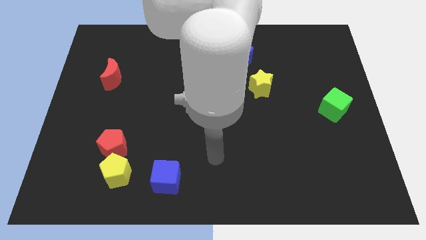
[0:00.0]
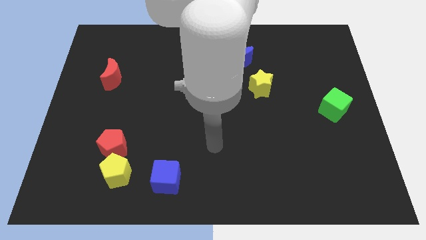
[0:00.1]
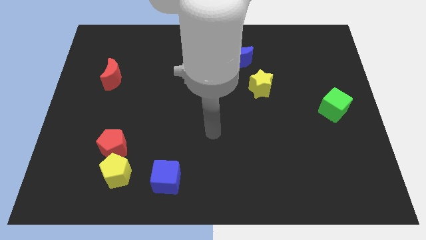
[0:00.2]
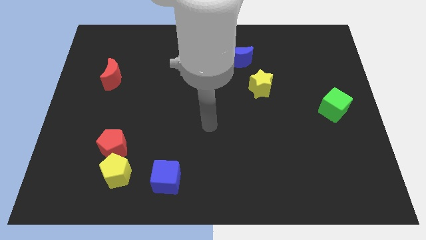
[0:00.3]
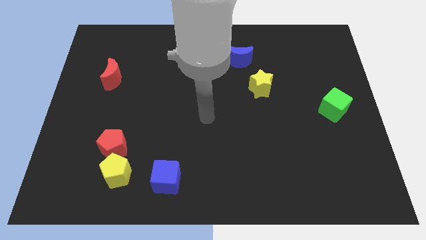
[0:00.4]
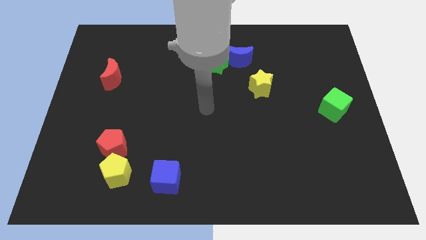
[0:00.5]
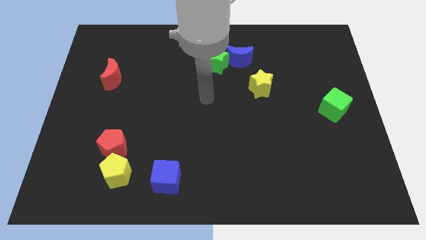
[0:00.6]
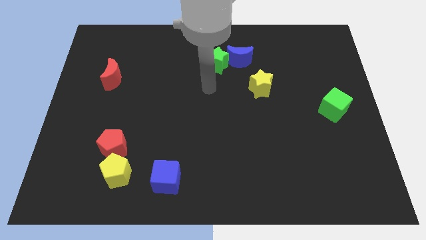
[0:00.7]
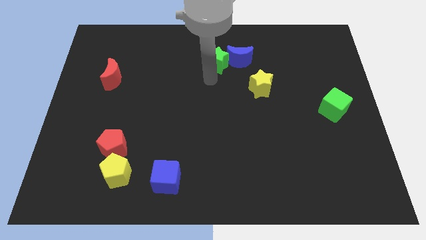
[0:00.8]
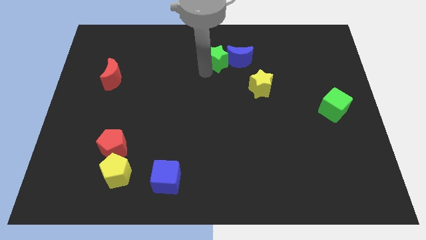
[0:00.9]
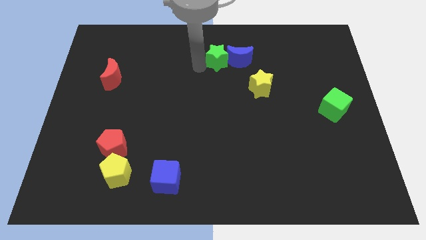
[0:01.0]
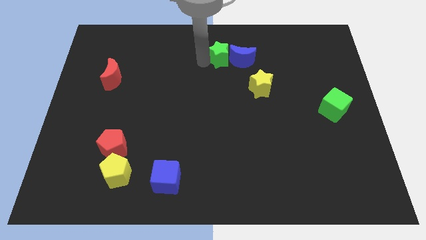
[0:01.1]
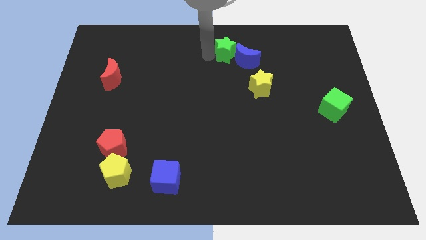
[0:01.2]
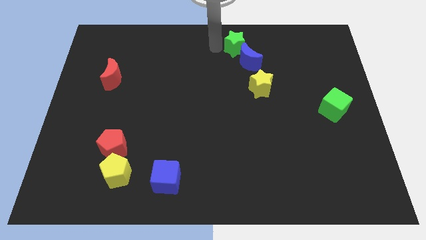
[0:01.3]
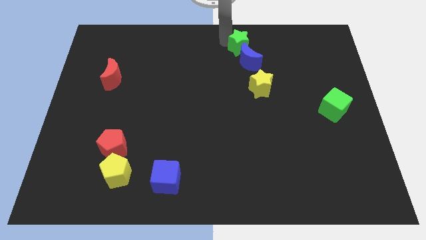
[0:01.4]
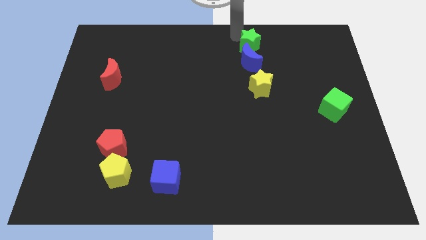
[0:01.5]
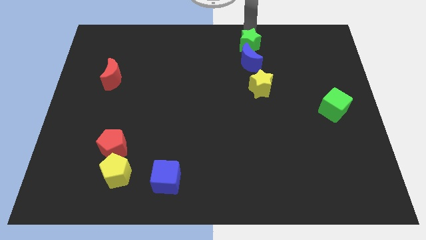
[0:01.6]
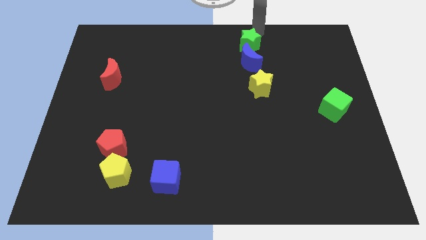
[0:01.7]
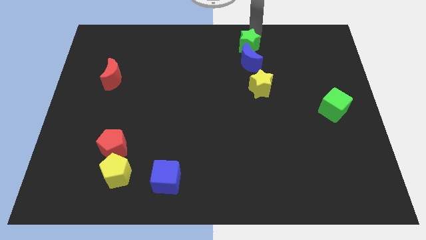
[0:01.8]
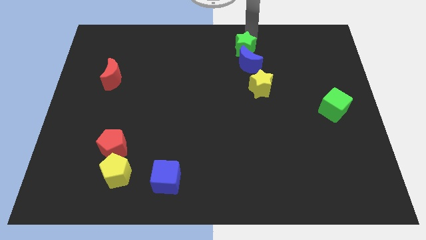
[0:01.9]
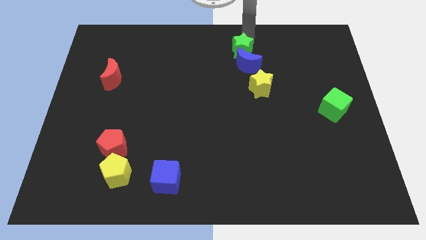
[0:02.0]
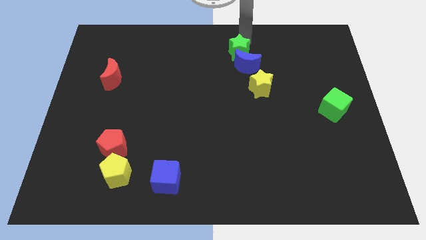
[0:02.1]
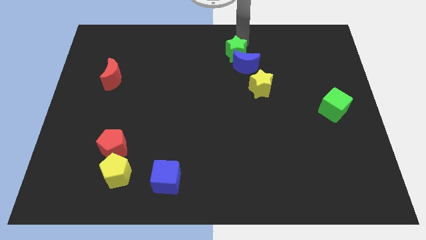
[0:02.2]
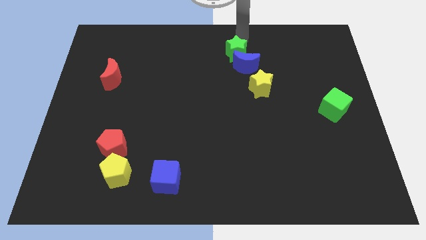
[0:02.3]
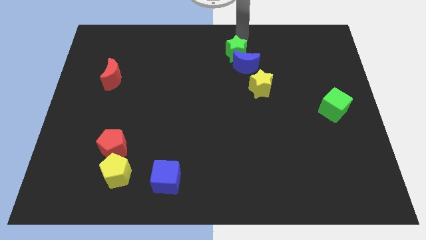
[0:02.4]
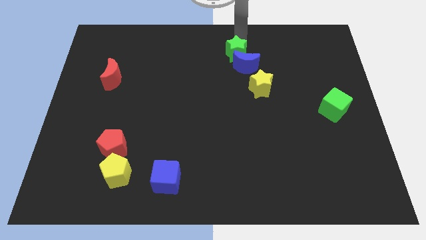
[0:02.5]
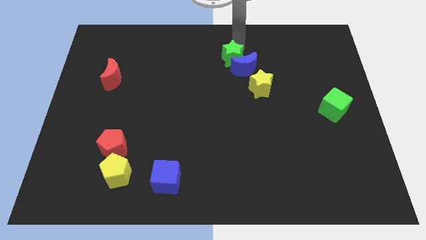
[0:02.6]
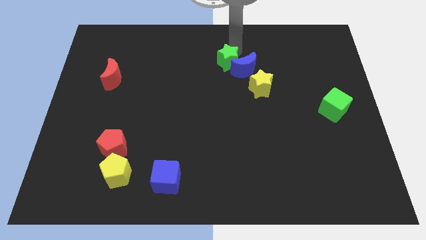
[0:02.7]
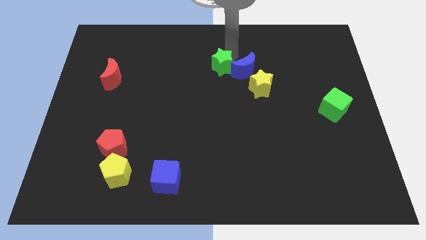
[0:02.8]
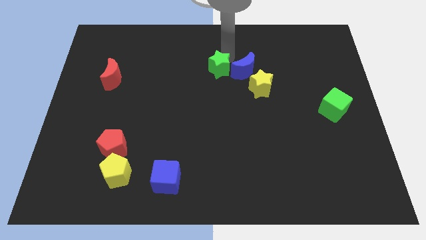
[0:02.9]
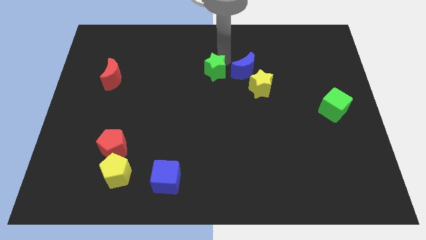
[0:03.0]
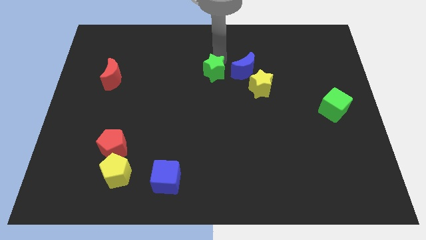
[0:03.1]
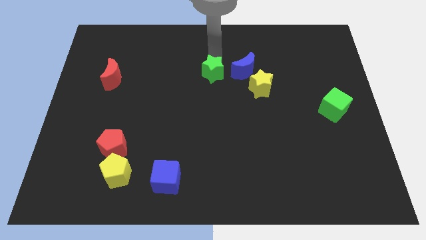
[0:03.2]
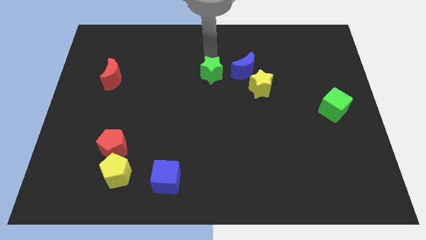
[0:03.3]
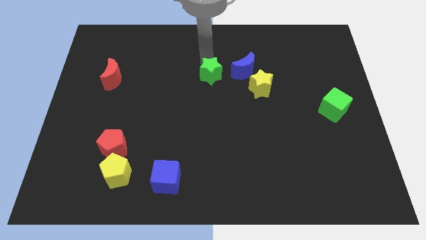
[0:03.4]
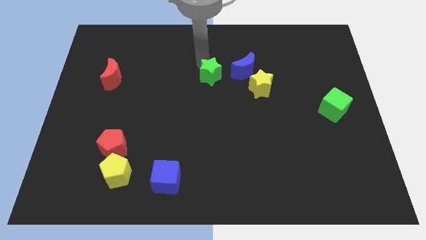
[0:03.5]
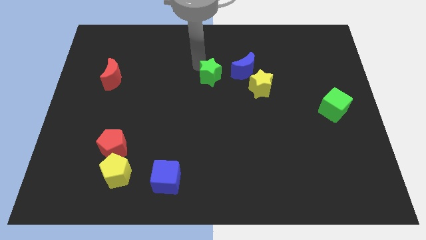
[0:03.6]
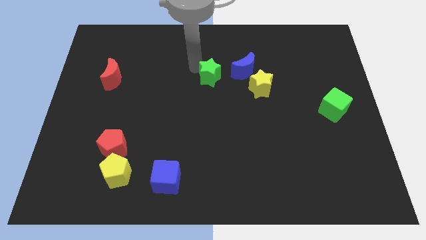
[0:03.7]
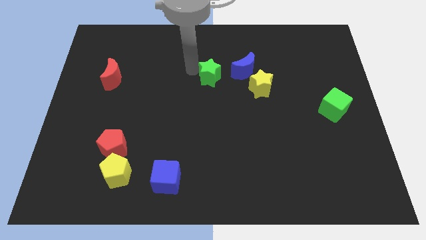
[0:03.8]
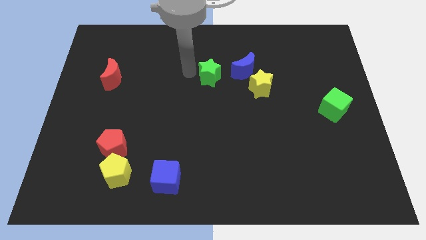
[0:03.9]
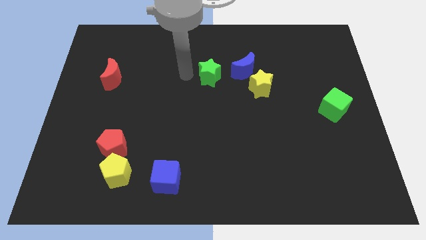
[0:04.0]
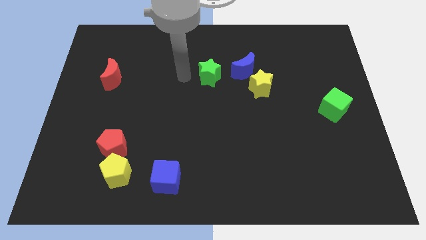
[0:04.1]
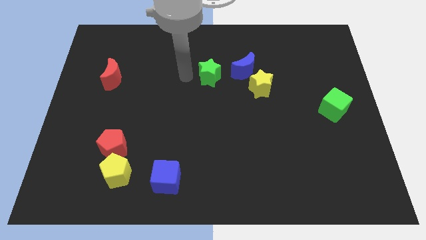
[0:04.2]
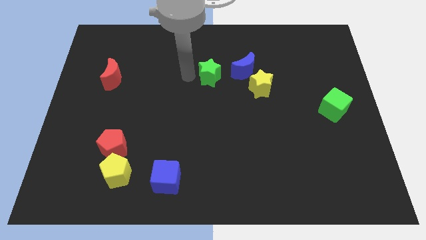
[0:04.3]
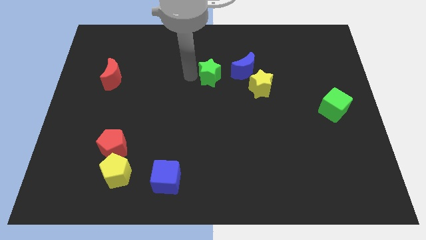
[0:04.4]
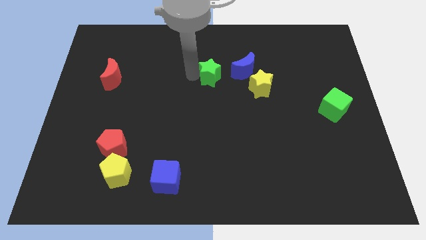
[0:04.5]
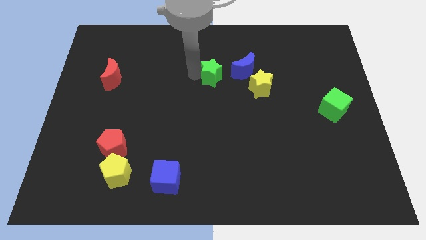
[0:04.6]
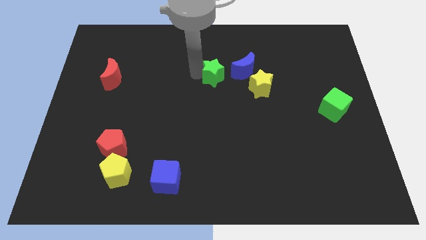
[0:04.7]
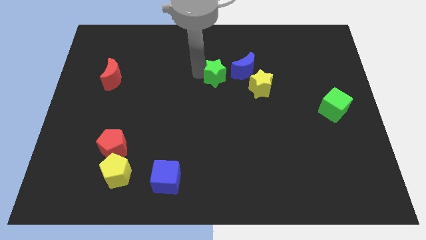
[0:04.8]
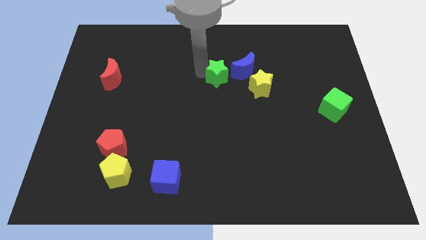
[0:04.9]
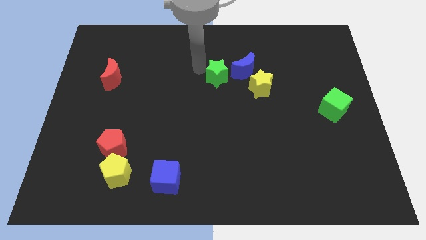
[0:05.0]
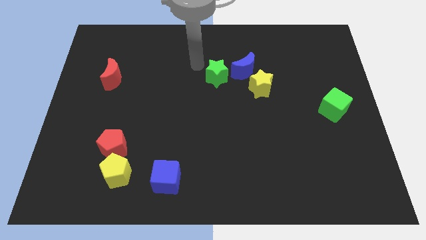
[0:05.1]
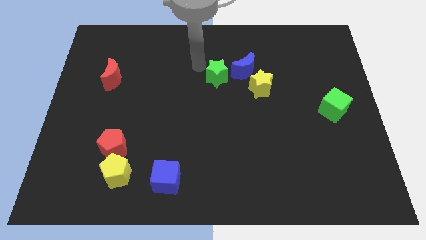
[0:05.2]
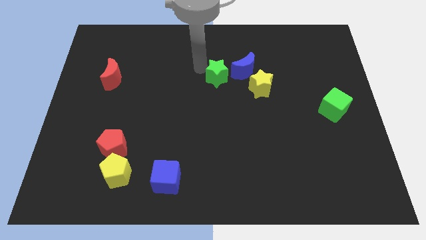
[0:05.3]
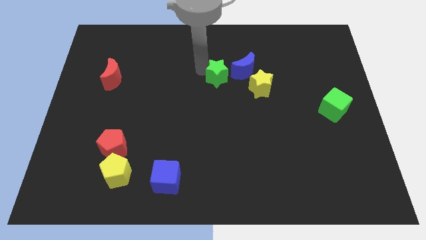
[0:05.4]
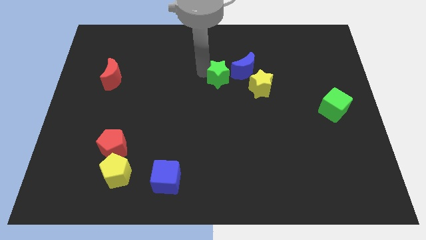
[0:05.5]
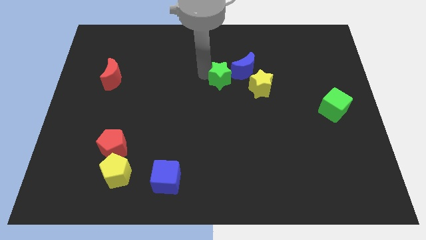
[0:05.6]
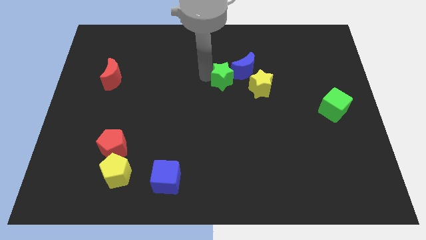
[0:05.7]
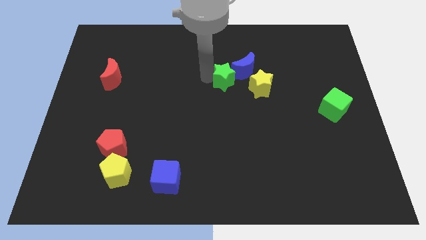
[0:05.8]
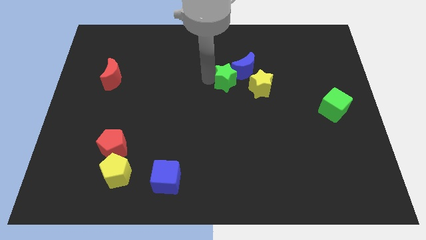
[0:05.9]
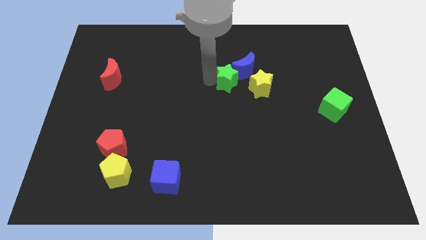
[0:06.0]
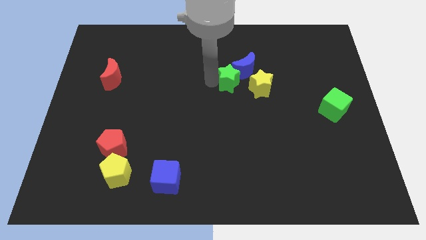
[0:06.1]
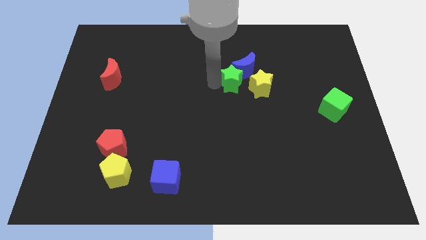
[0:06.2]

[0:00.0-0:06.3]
push the green star down and then to the right somewhat

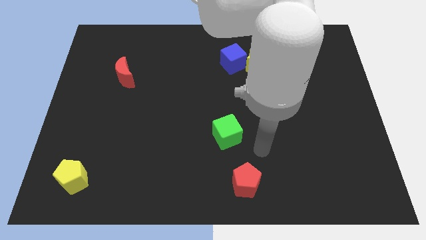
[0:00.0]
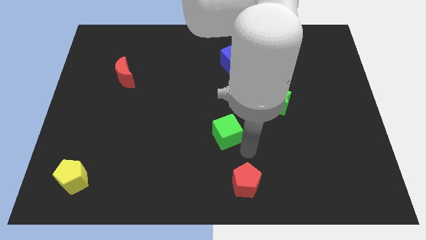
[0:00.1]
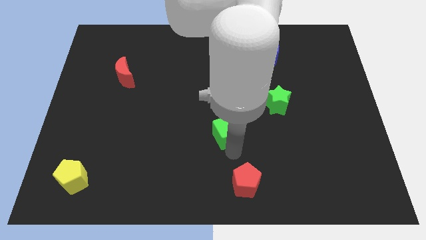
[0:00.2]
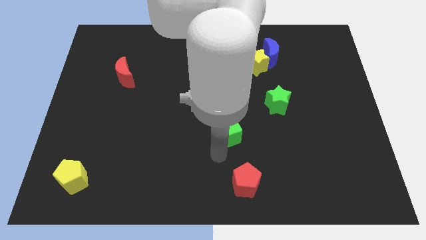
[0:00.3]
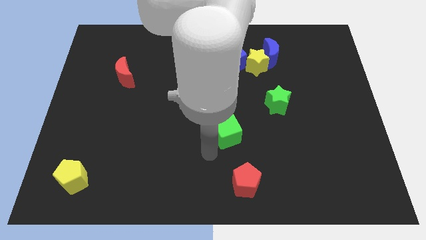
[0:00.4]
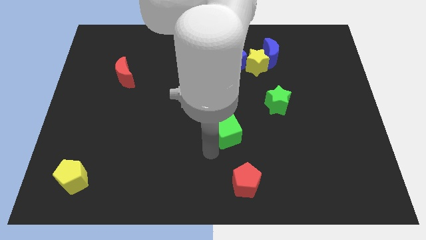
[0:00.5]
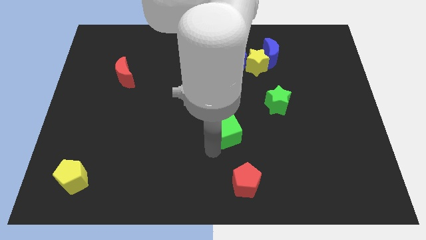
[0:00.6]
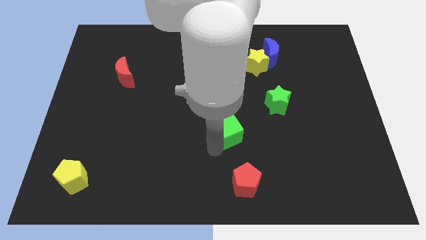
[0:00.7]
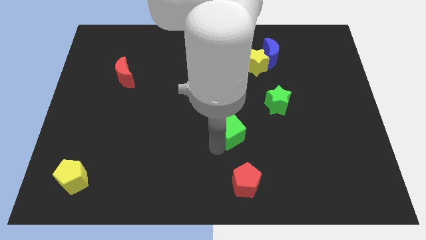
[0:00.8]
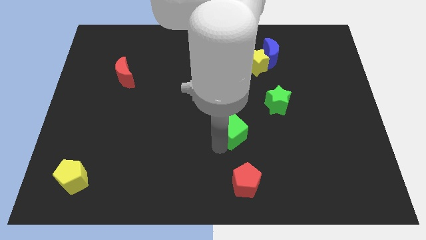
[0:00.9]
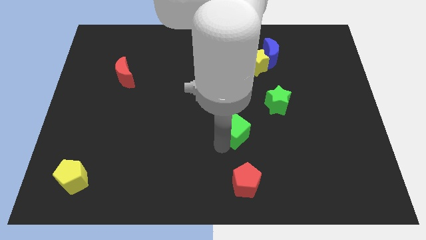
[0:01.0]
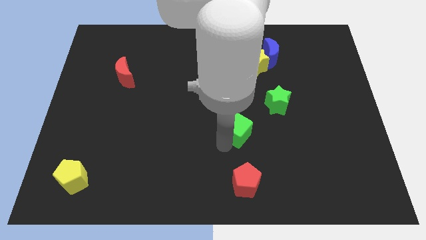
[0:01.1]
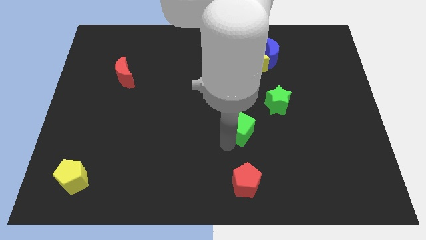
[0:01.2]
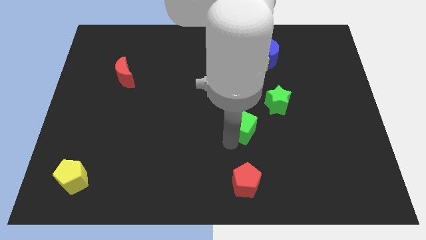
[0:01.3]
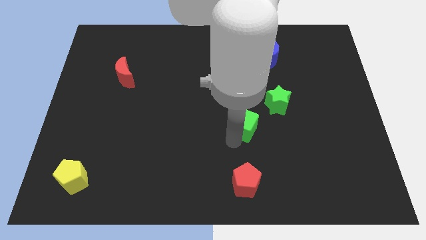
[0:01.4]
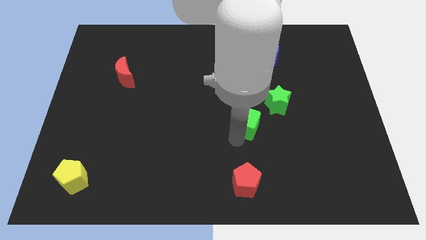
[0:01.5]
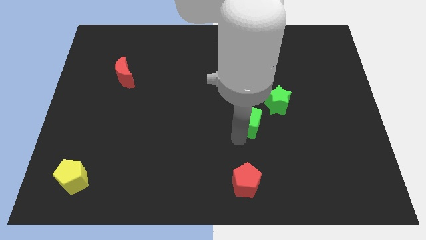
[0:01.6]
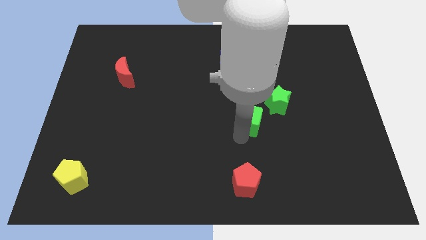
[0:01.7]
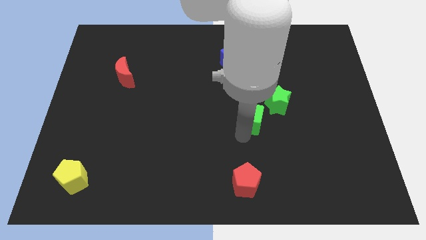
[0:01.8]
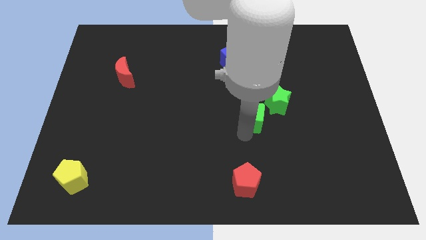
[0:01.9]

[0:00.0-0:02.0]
move the green cube somewhat upwards and right
